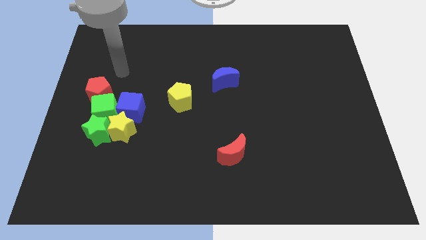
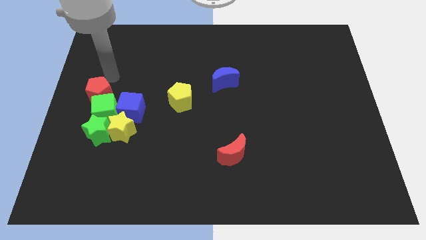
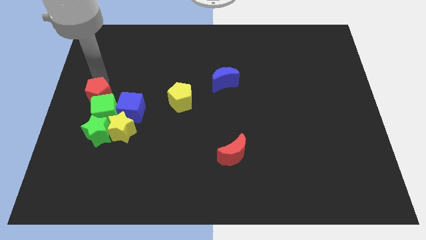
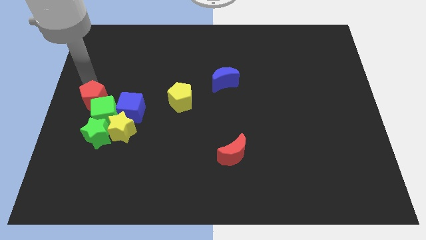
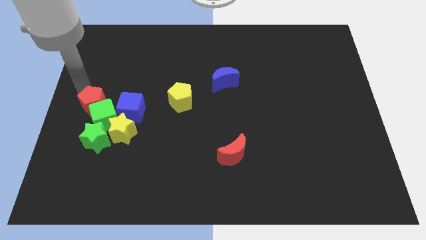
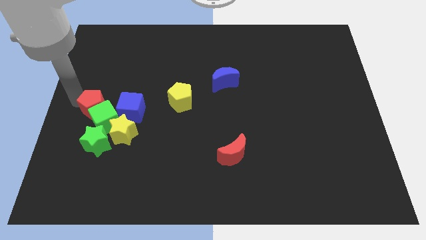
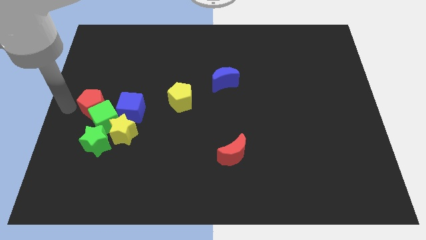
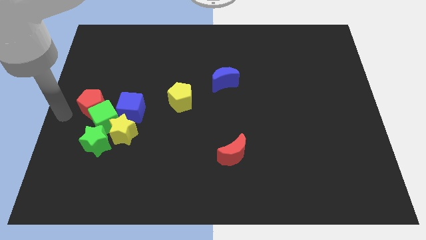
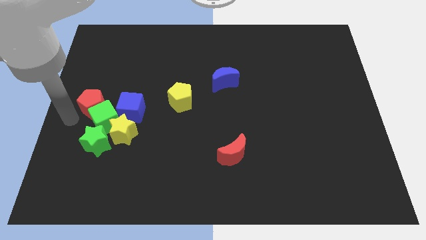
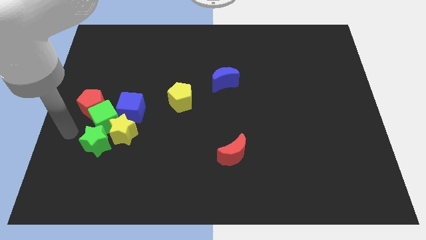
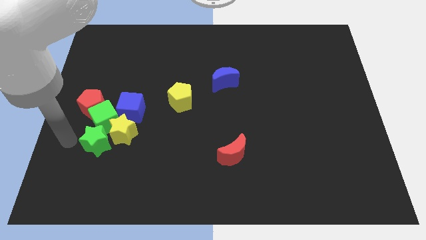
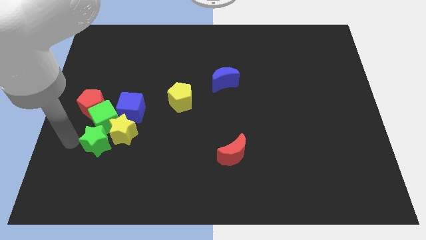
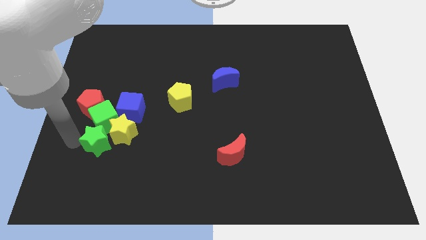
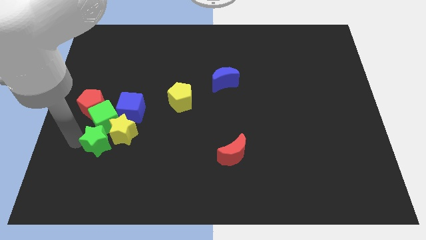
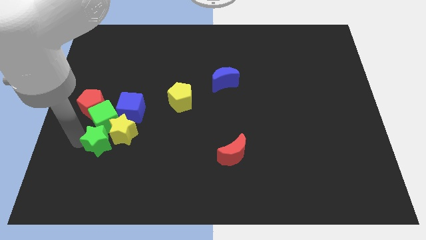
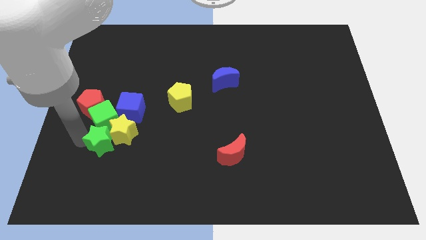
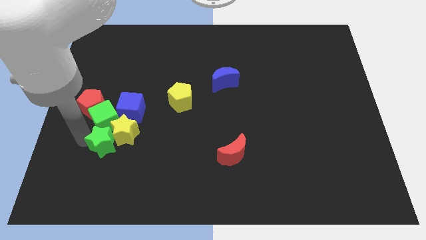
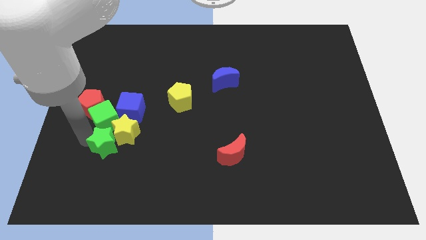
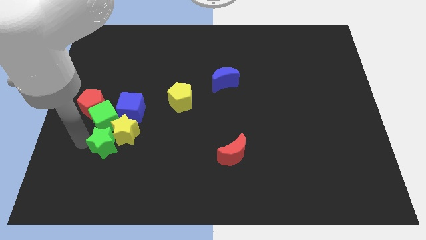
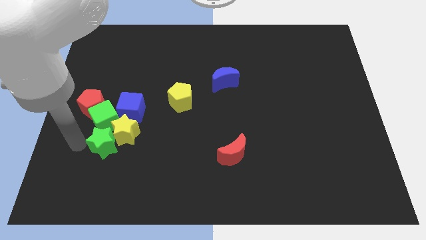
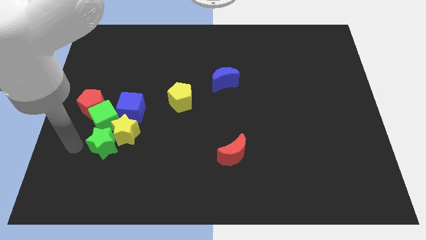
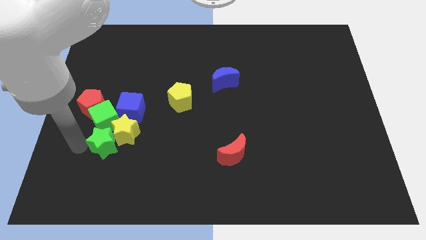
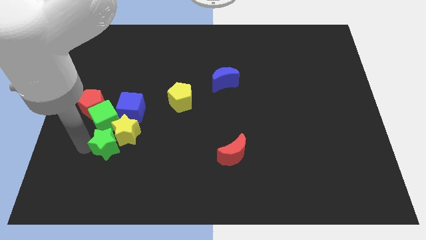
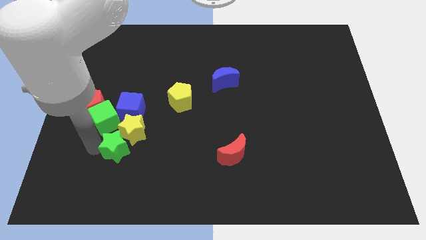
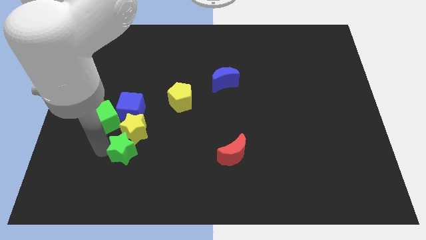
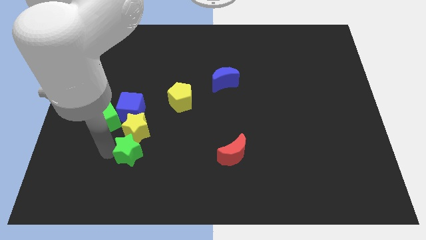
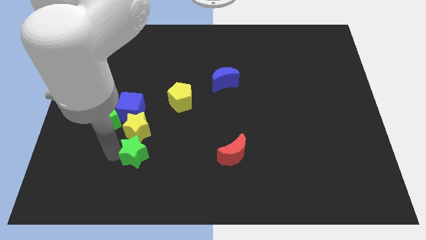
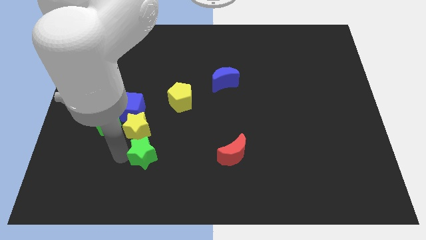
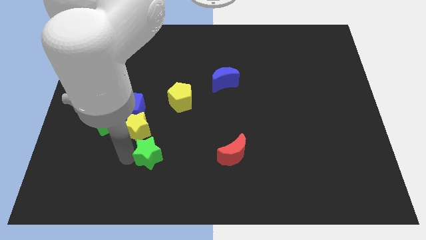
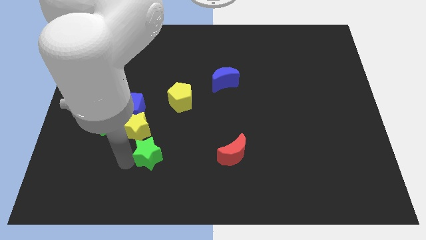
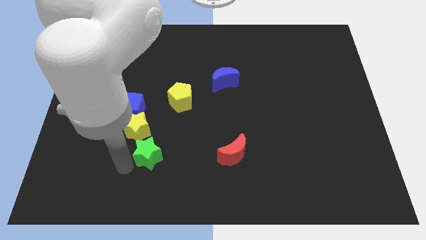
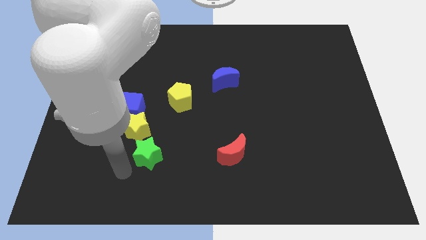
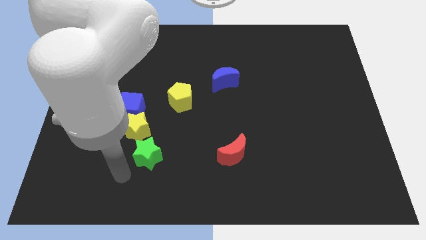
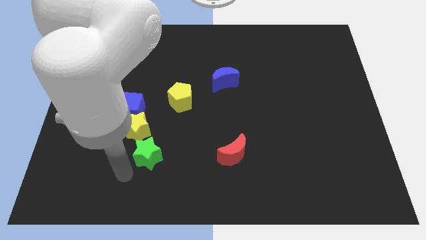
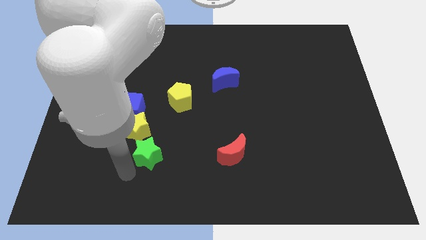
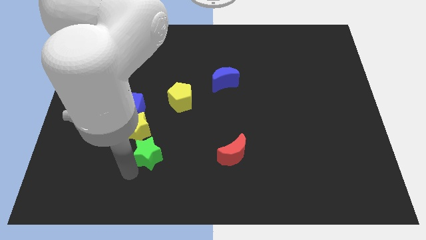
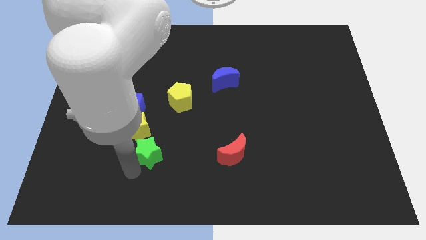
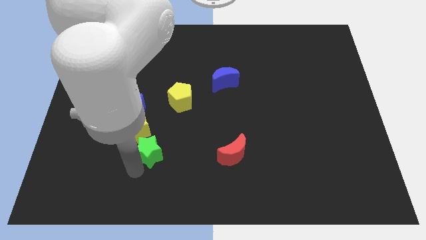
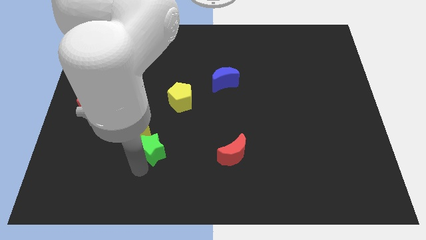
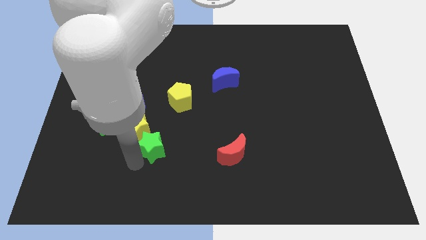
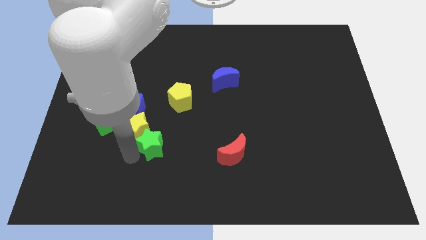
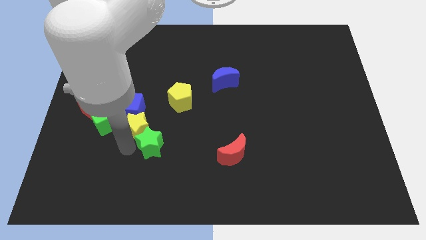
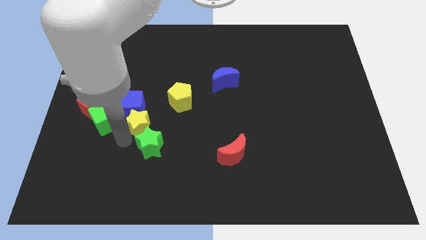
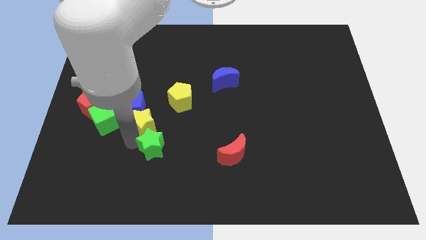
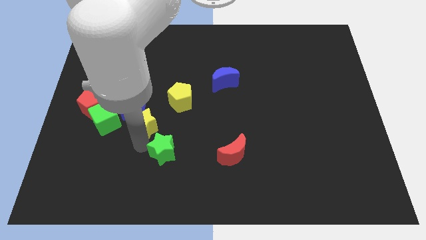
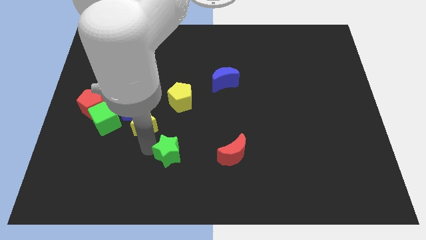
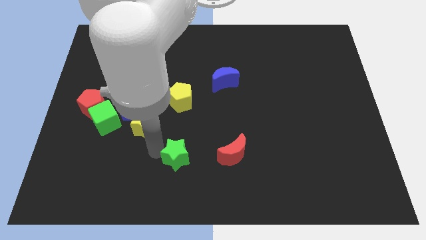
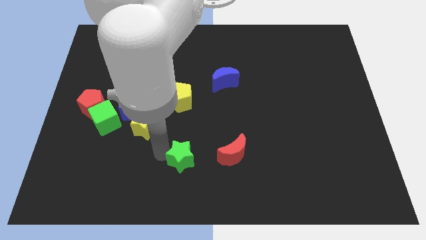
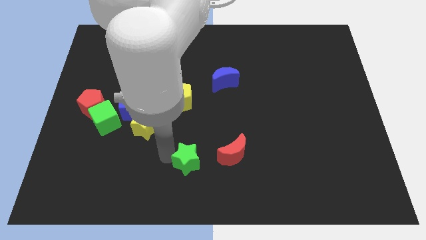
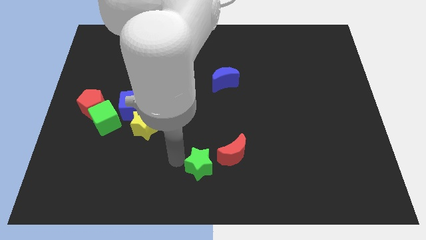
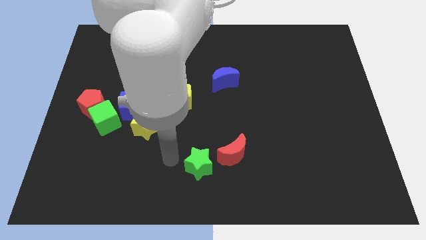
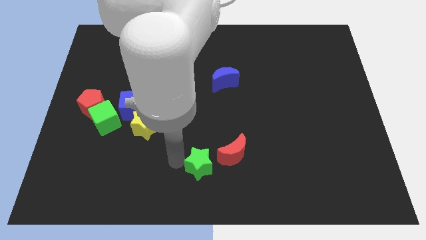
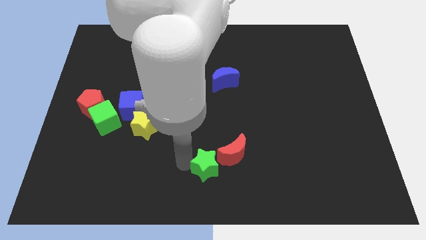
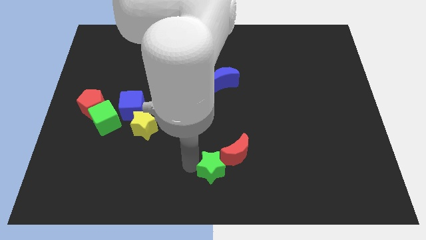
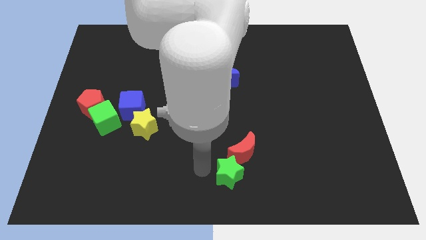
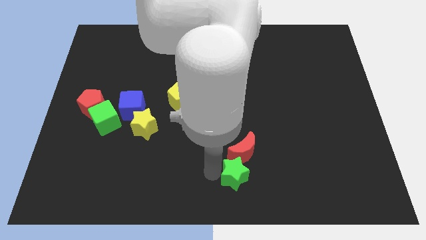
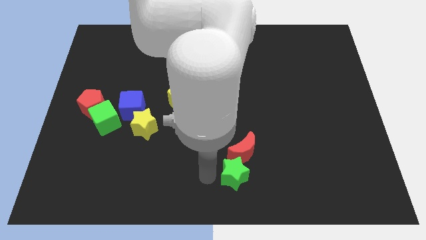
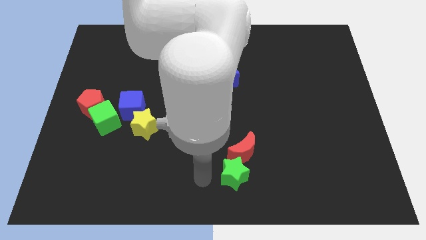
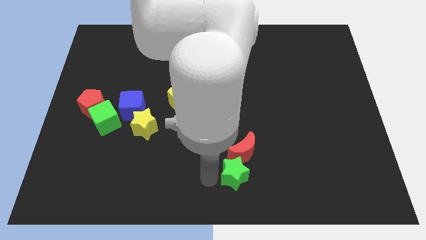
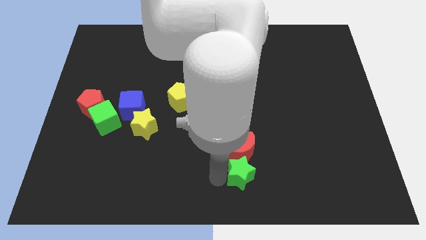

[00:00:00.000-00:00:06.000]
put the green star to the bottom right of the red moon

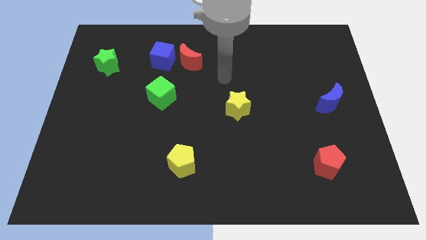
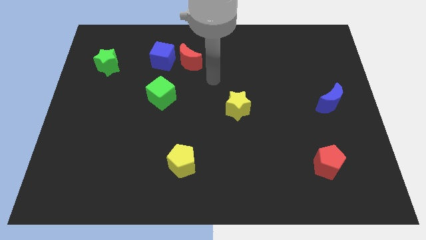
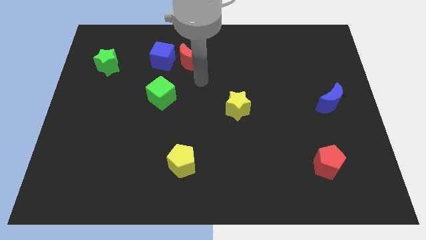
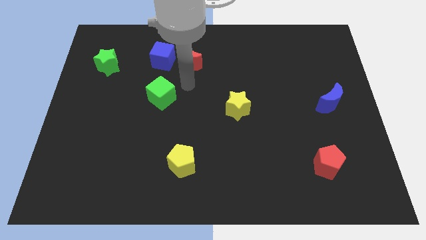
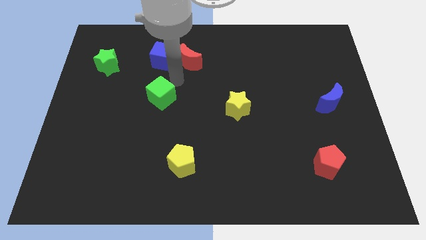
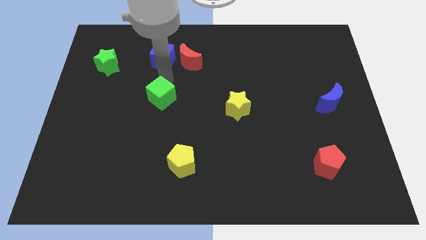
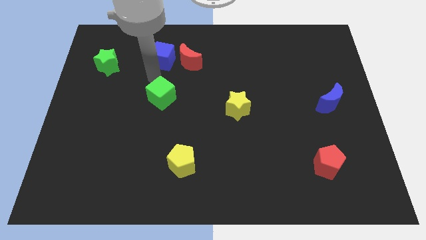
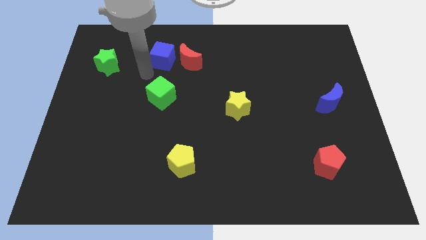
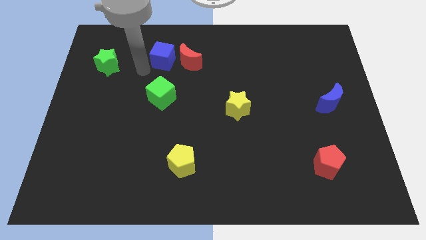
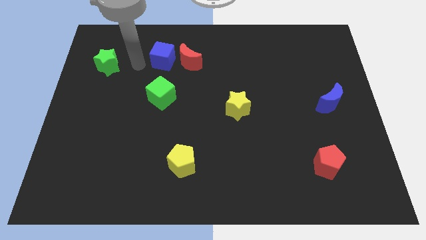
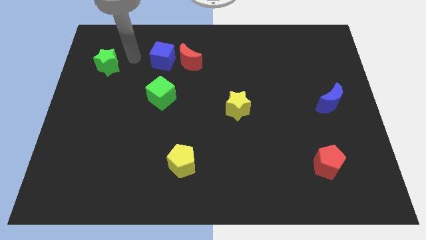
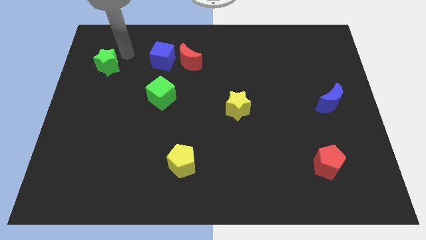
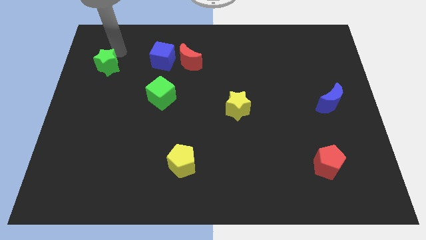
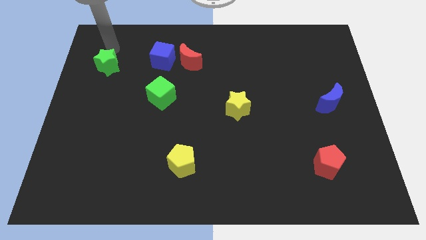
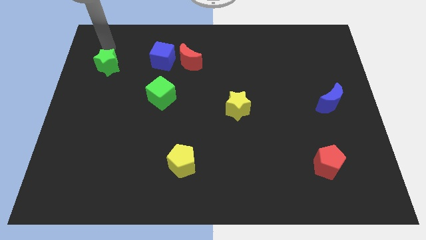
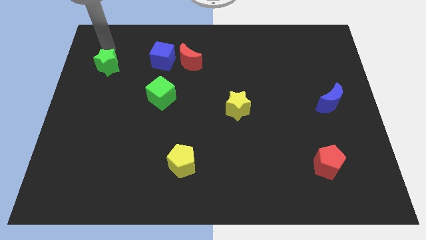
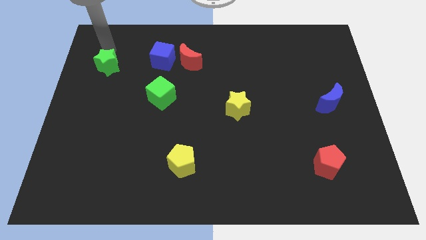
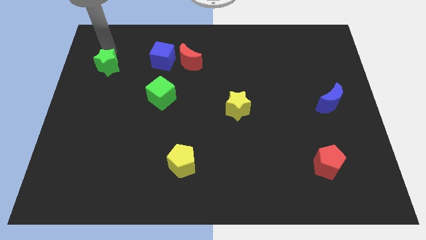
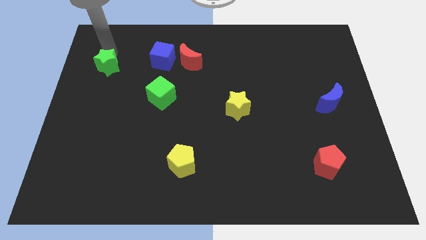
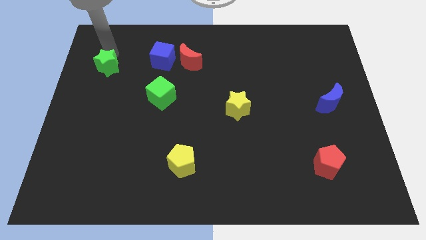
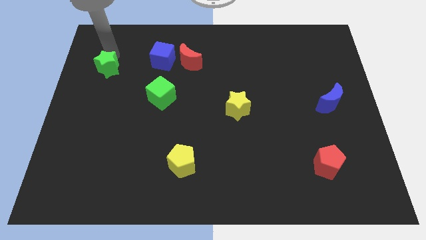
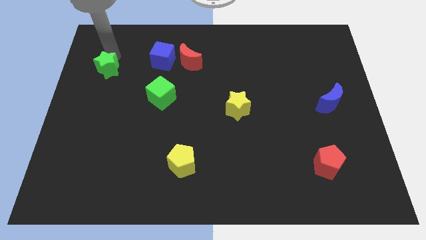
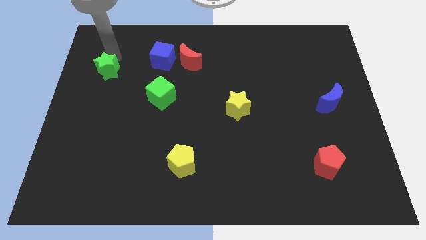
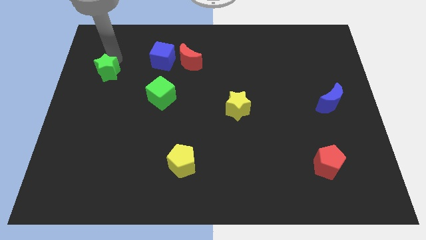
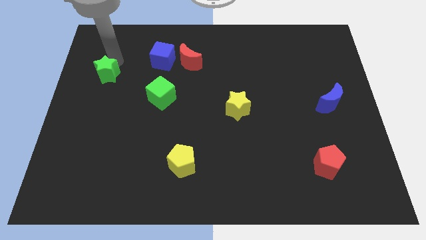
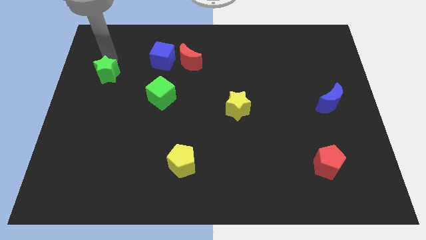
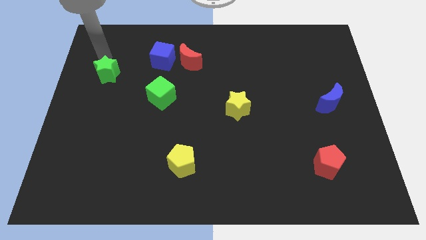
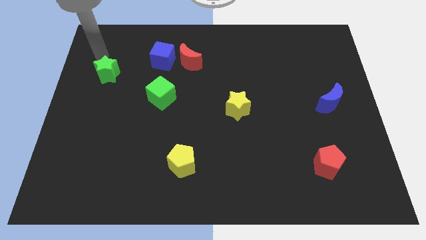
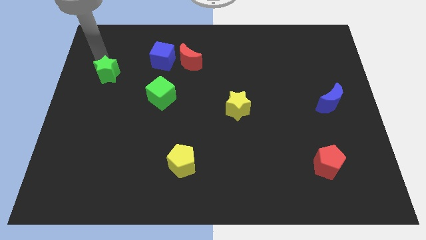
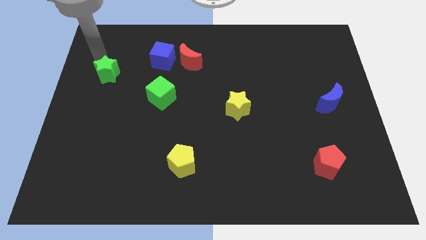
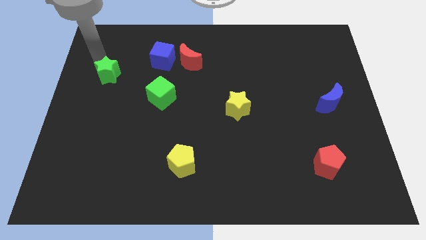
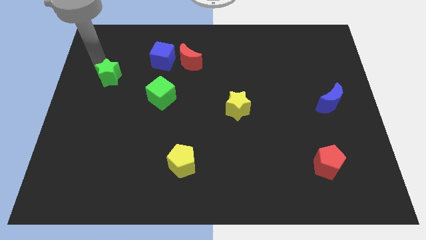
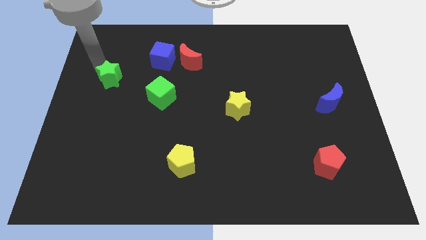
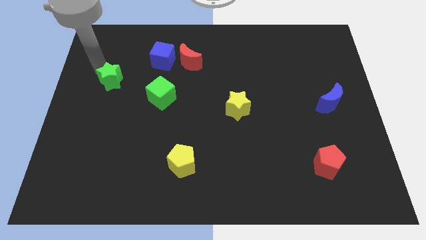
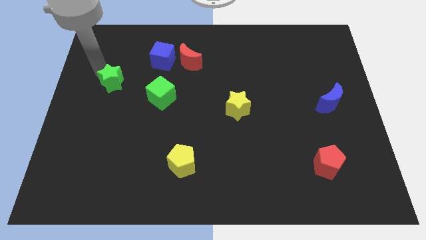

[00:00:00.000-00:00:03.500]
slide the green star to the left of the green cube
